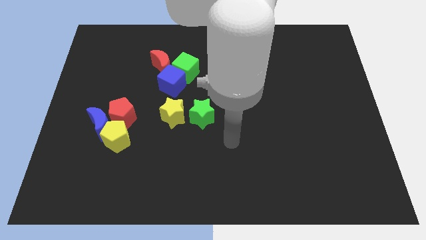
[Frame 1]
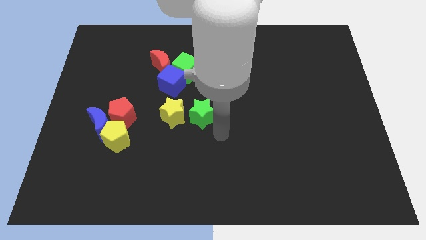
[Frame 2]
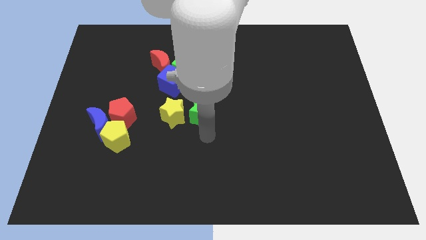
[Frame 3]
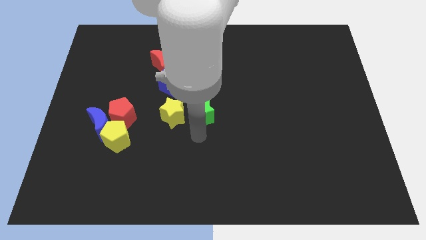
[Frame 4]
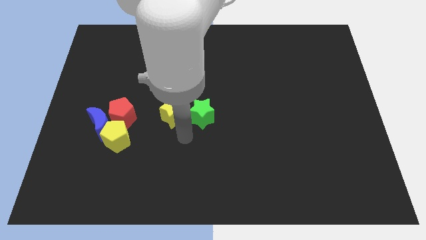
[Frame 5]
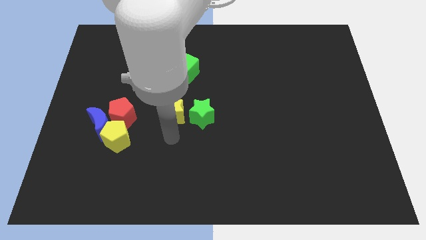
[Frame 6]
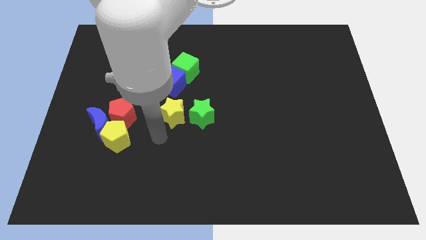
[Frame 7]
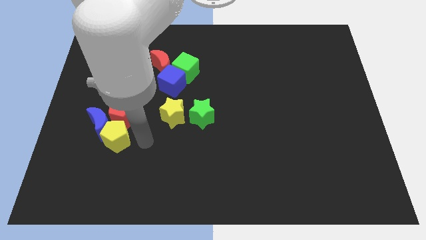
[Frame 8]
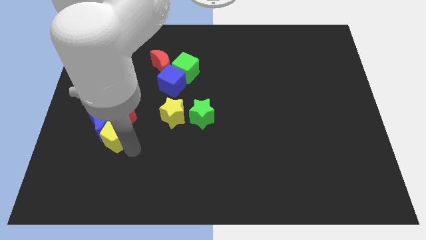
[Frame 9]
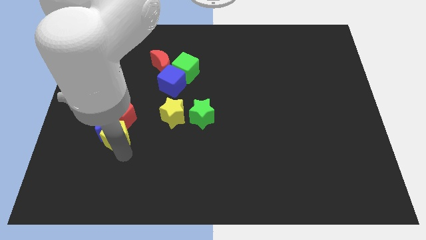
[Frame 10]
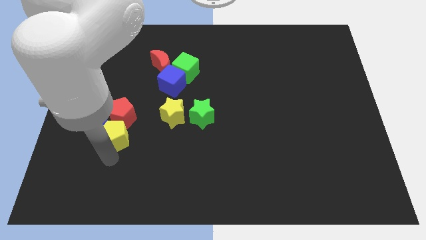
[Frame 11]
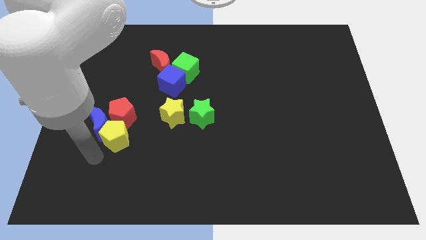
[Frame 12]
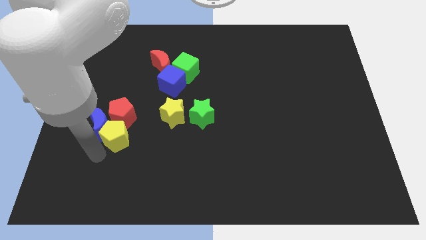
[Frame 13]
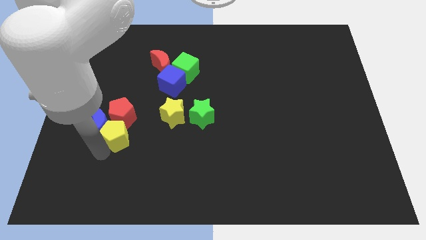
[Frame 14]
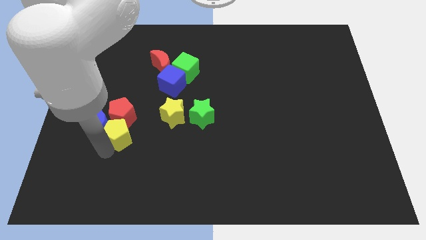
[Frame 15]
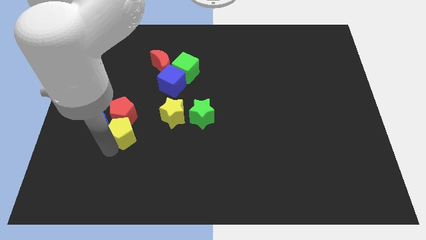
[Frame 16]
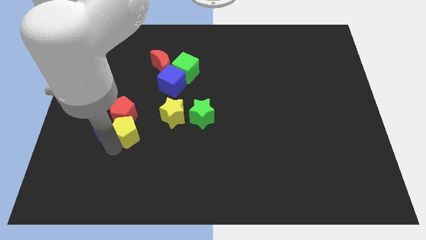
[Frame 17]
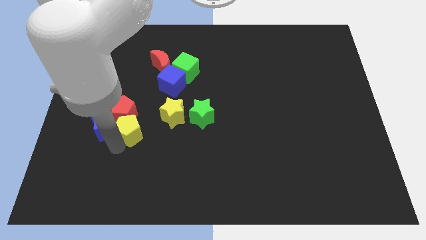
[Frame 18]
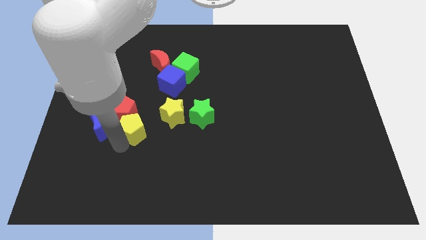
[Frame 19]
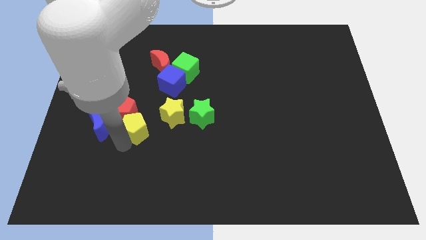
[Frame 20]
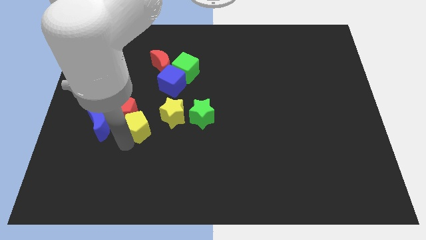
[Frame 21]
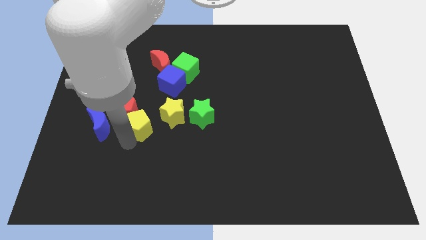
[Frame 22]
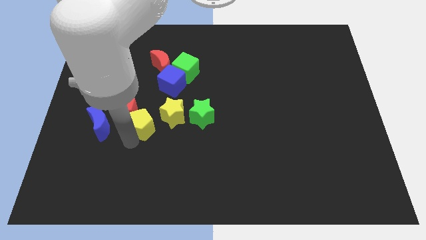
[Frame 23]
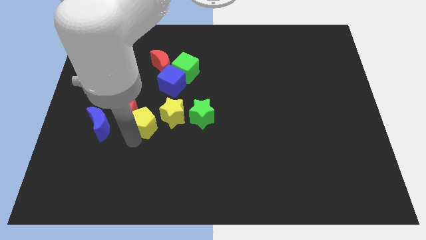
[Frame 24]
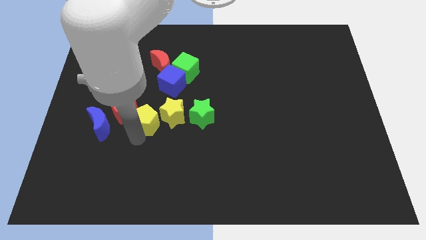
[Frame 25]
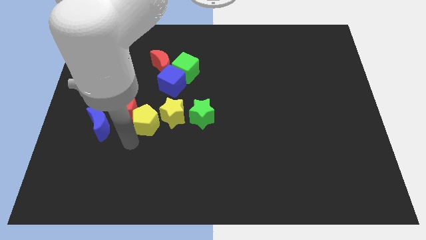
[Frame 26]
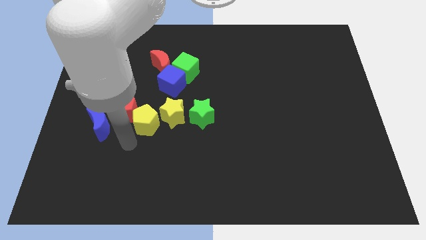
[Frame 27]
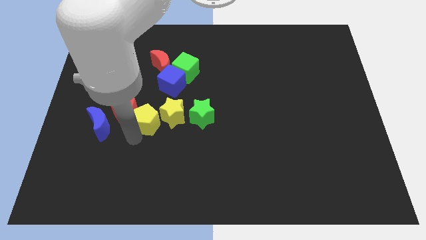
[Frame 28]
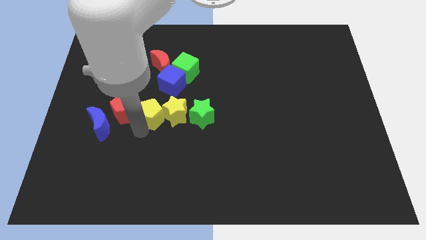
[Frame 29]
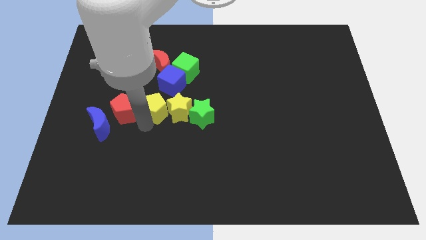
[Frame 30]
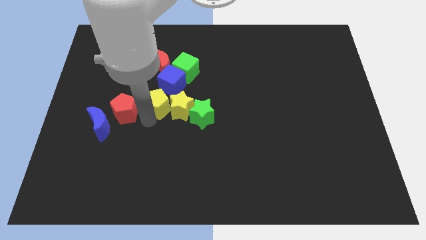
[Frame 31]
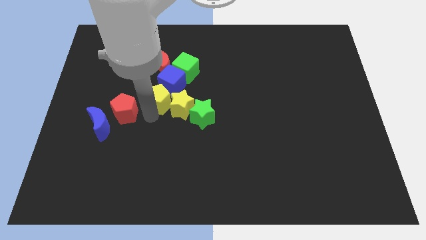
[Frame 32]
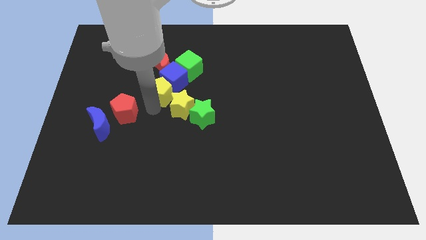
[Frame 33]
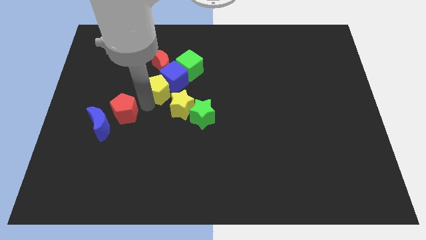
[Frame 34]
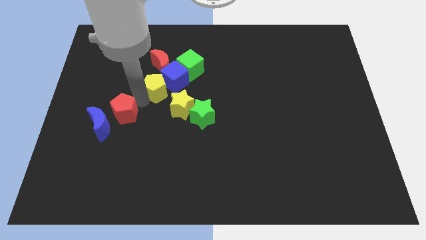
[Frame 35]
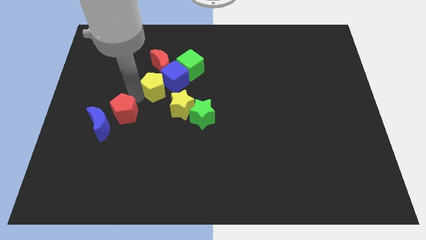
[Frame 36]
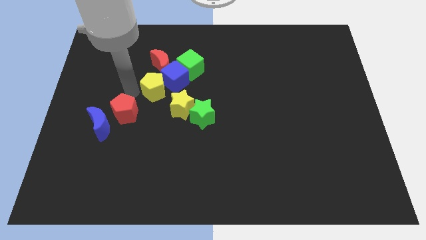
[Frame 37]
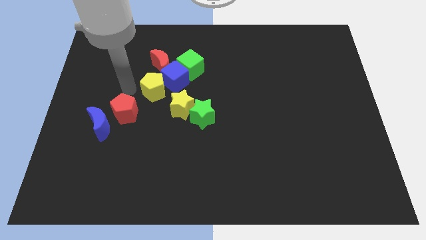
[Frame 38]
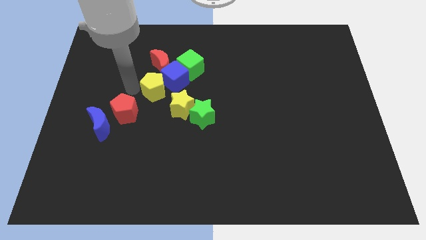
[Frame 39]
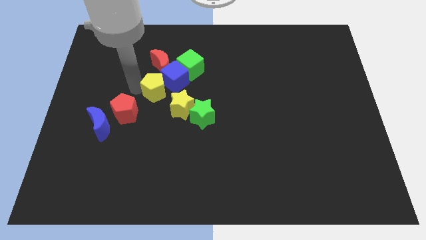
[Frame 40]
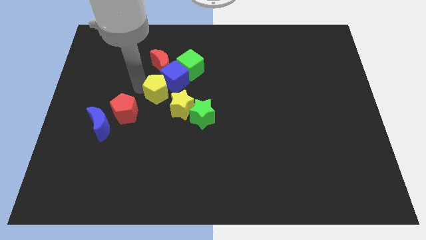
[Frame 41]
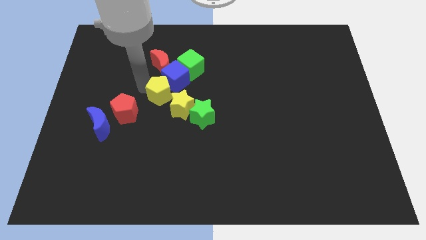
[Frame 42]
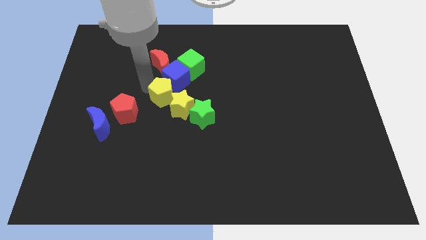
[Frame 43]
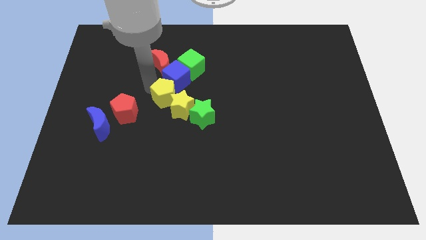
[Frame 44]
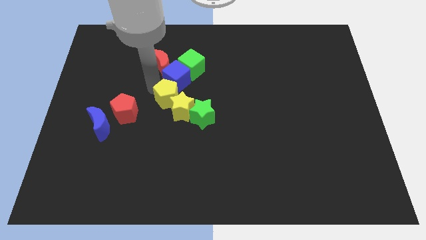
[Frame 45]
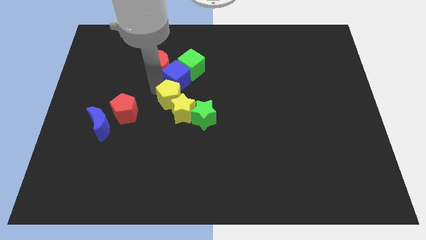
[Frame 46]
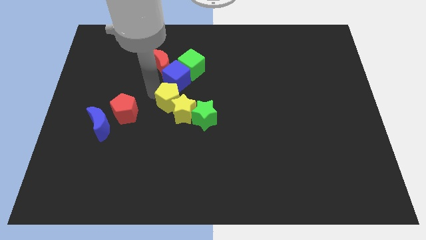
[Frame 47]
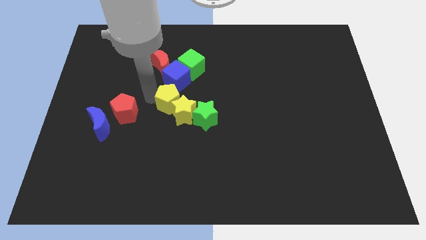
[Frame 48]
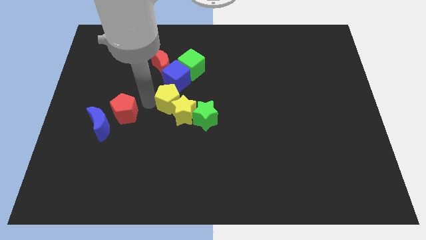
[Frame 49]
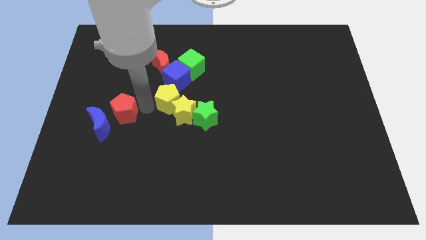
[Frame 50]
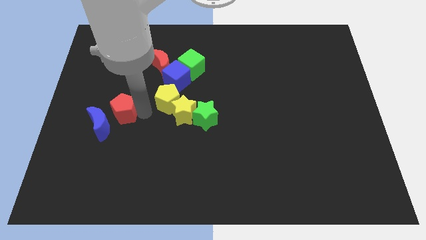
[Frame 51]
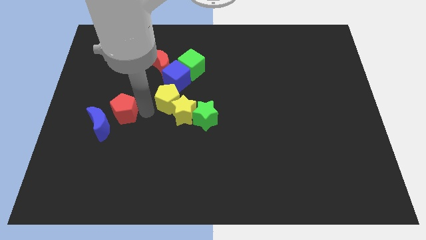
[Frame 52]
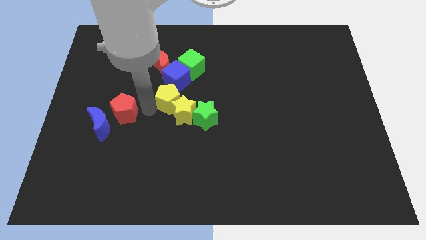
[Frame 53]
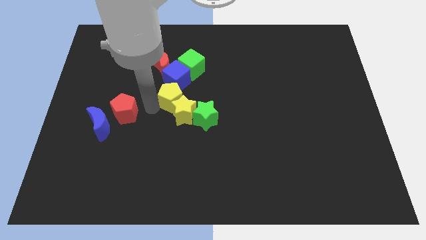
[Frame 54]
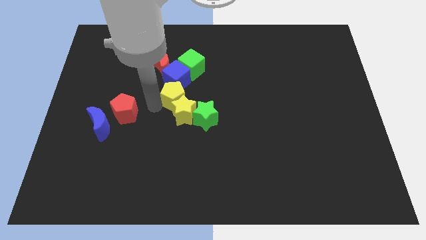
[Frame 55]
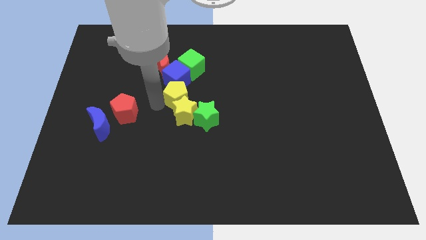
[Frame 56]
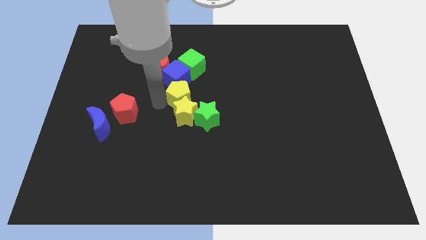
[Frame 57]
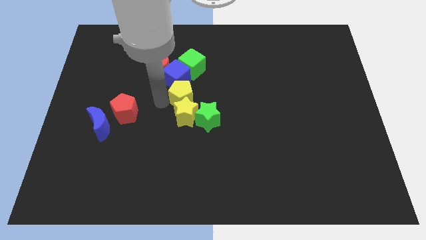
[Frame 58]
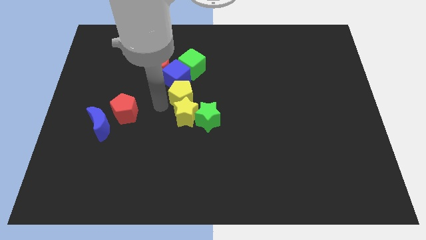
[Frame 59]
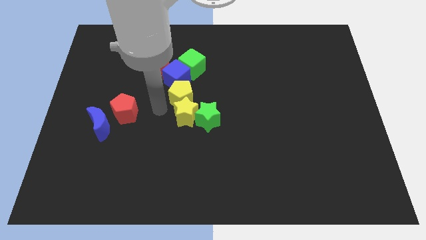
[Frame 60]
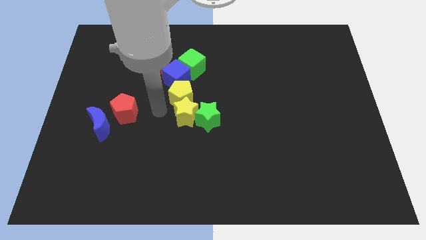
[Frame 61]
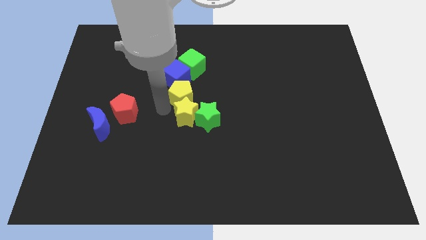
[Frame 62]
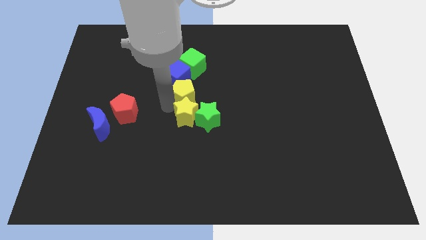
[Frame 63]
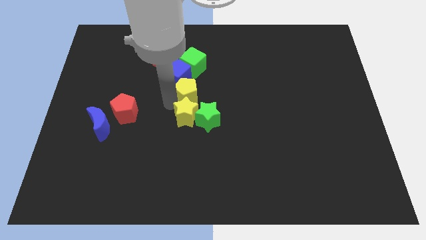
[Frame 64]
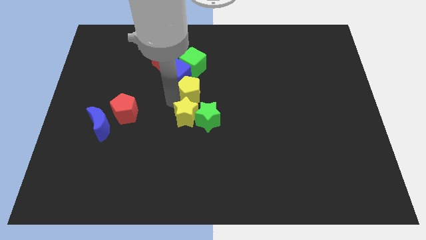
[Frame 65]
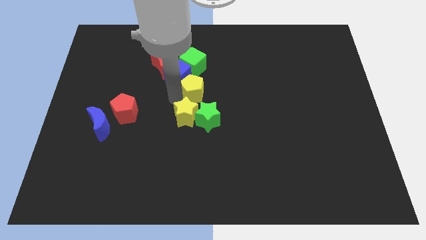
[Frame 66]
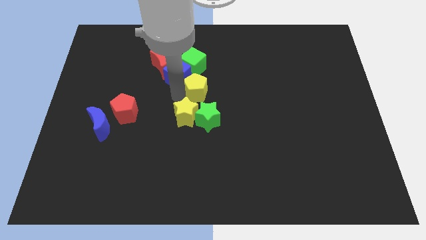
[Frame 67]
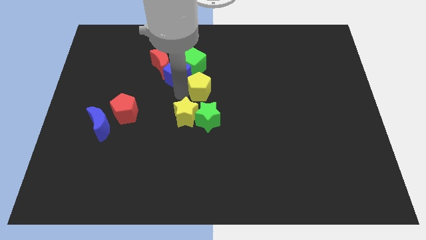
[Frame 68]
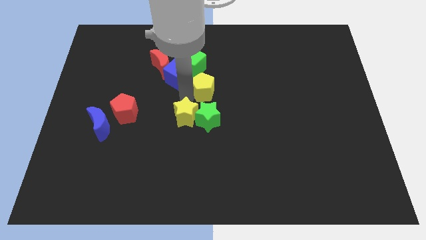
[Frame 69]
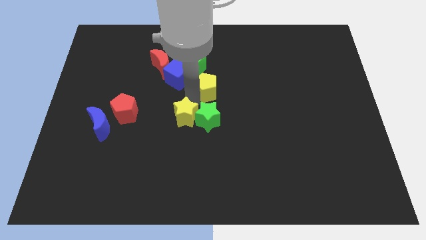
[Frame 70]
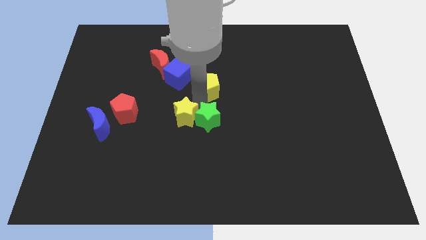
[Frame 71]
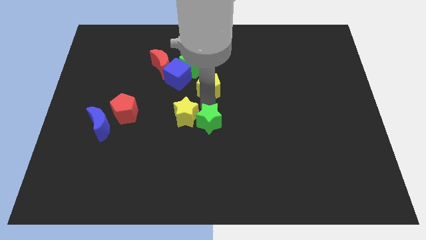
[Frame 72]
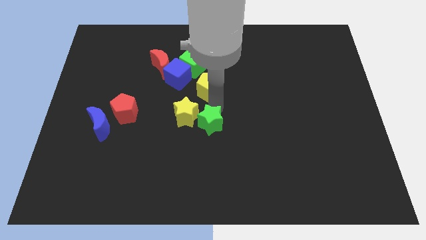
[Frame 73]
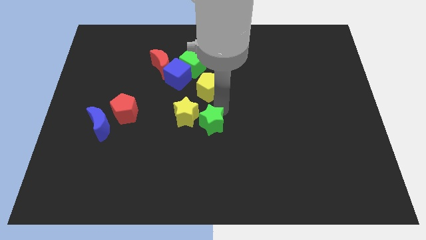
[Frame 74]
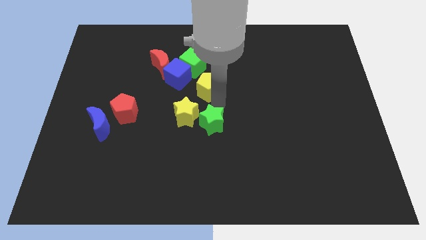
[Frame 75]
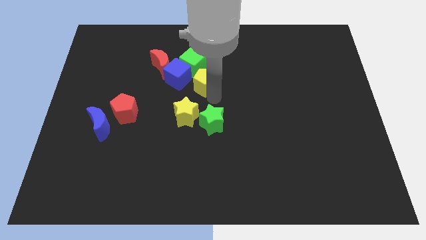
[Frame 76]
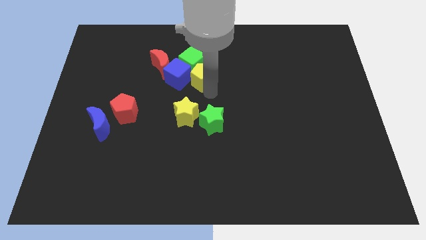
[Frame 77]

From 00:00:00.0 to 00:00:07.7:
move the yellow pentagon towards the green cube
